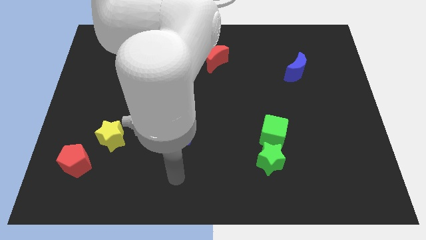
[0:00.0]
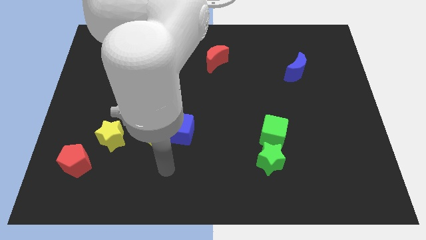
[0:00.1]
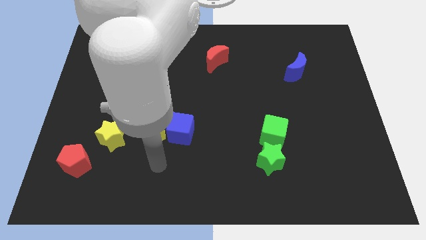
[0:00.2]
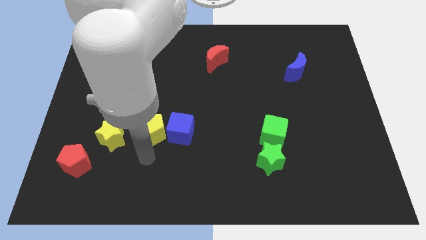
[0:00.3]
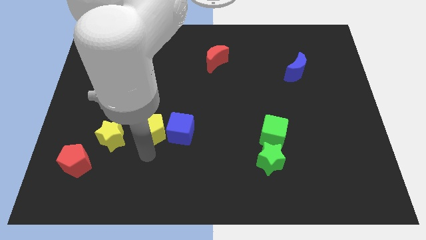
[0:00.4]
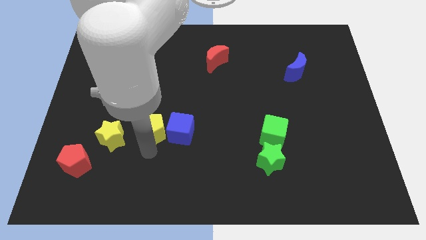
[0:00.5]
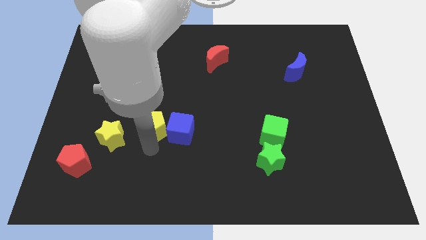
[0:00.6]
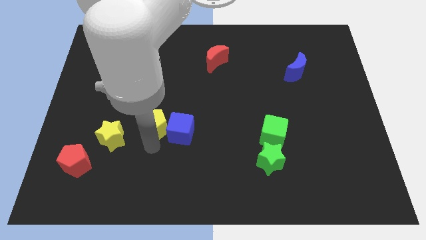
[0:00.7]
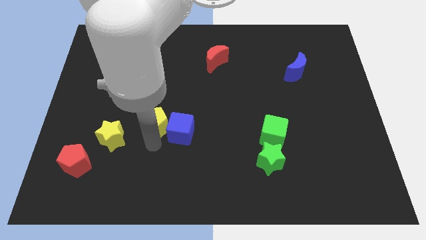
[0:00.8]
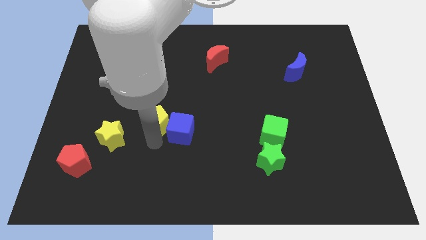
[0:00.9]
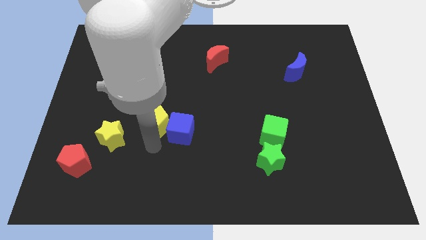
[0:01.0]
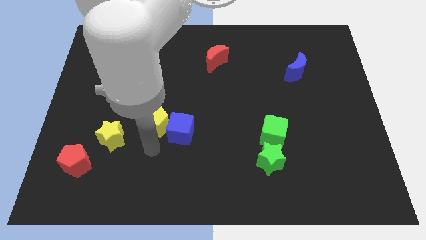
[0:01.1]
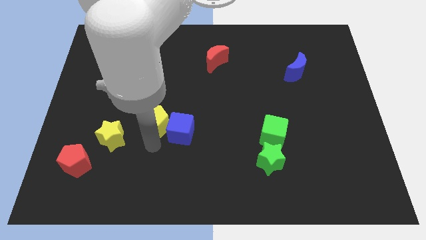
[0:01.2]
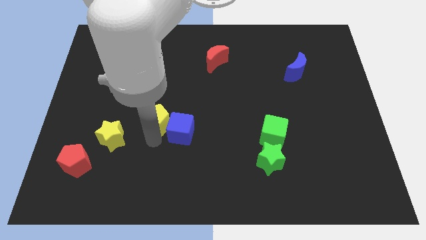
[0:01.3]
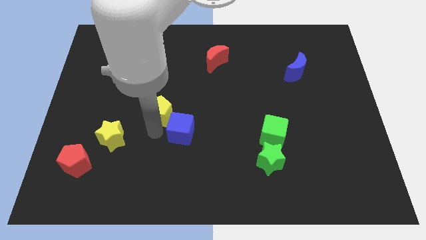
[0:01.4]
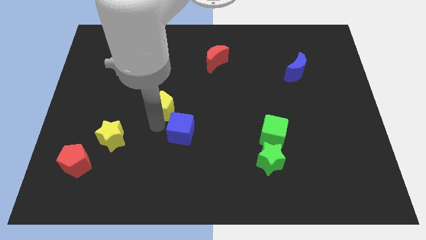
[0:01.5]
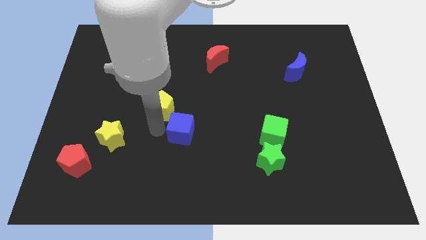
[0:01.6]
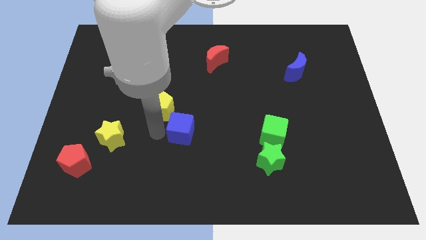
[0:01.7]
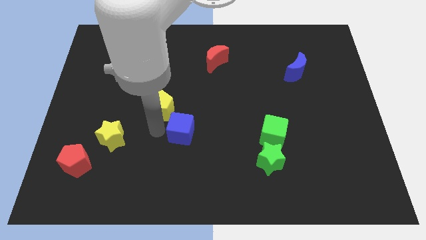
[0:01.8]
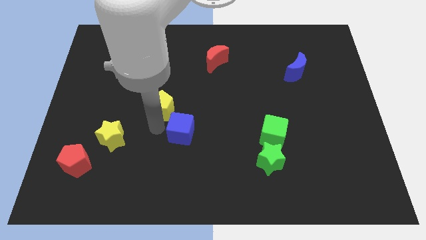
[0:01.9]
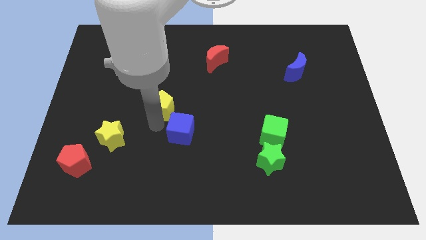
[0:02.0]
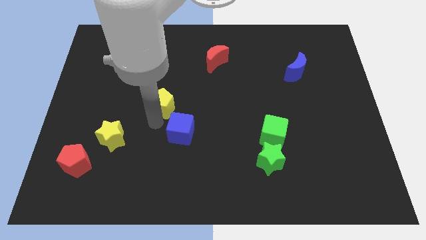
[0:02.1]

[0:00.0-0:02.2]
push the yellow pentagon a little upwards

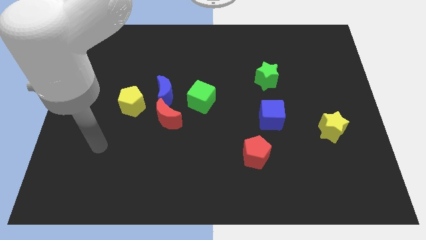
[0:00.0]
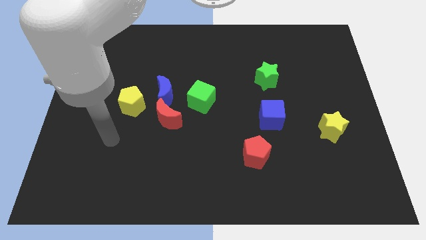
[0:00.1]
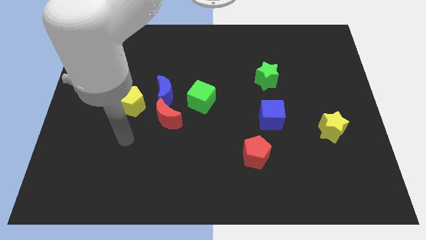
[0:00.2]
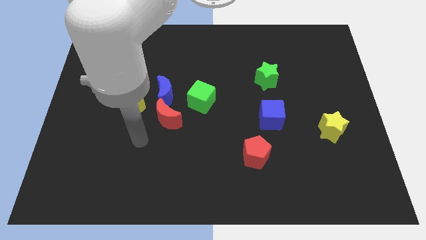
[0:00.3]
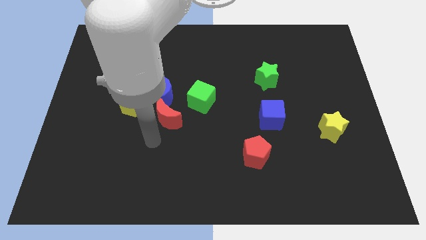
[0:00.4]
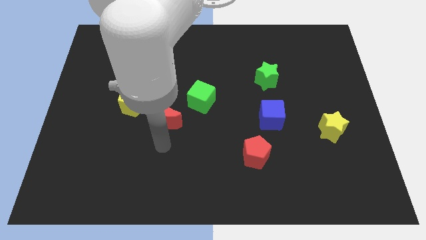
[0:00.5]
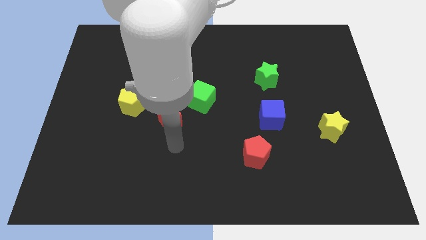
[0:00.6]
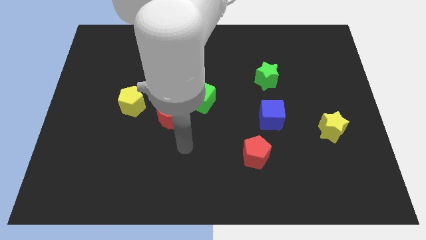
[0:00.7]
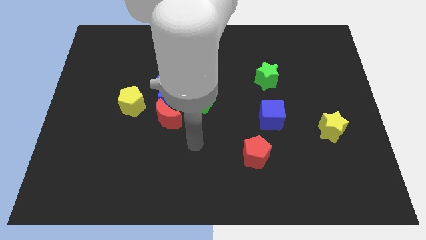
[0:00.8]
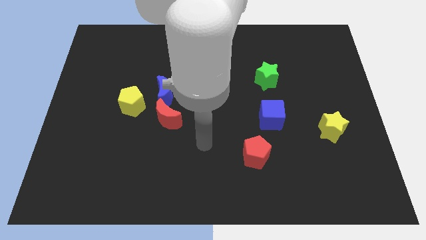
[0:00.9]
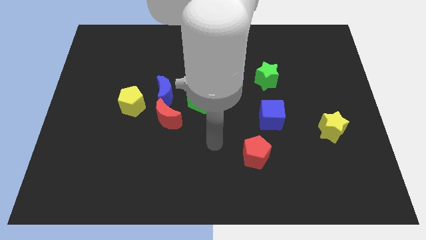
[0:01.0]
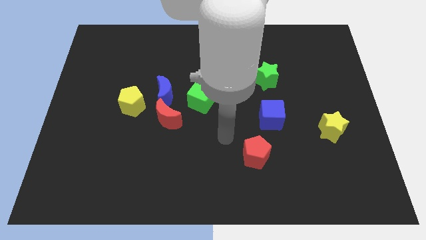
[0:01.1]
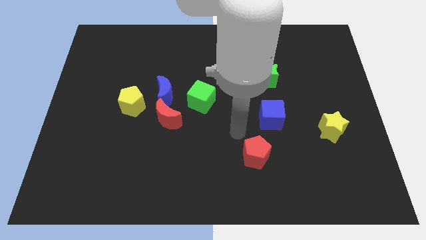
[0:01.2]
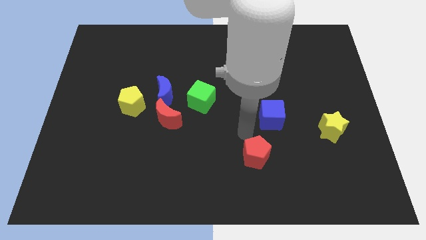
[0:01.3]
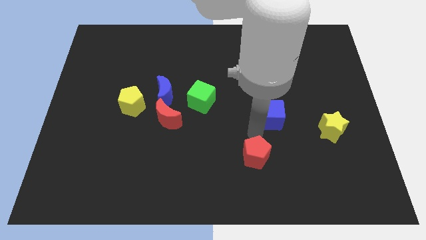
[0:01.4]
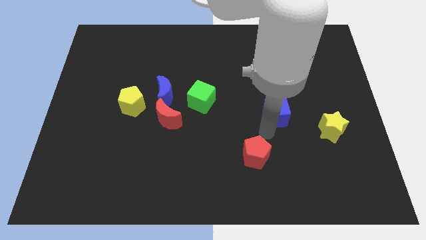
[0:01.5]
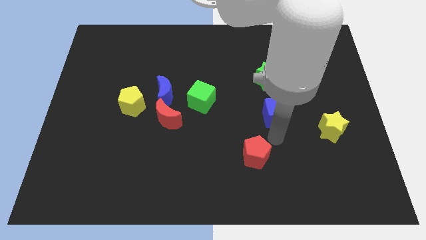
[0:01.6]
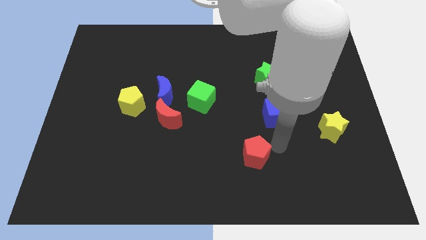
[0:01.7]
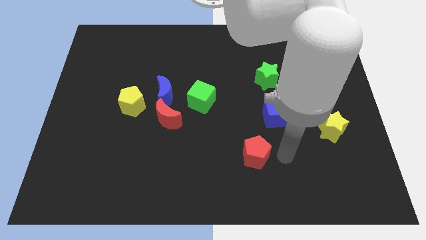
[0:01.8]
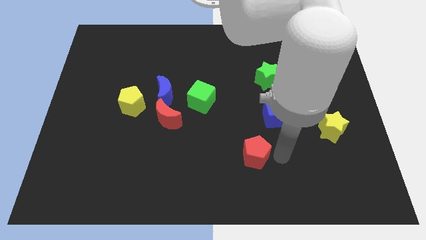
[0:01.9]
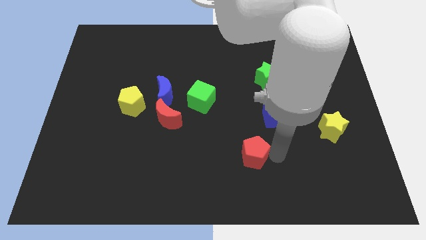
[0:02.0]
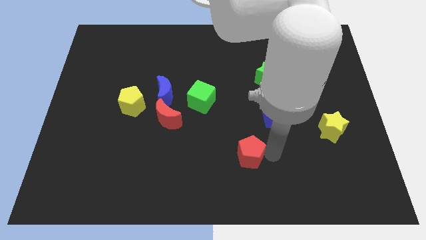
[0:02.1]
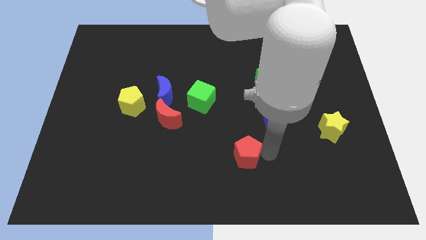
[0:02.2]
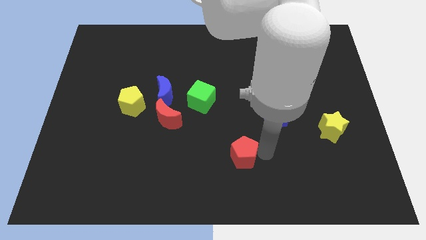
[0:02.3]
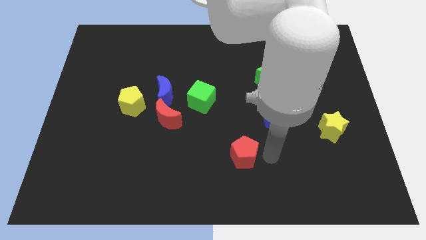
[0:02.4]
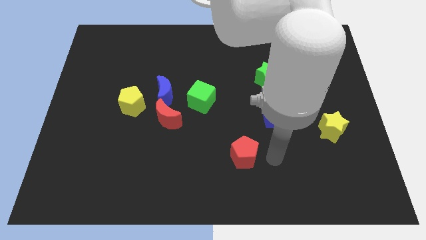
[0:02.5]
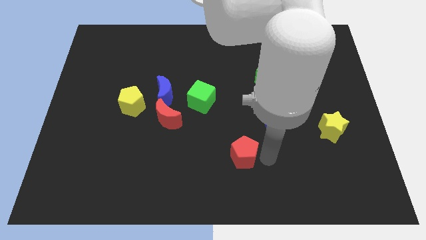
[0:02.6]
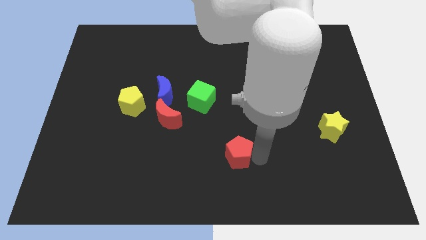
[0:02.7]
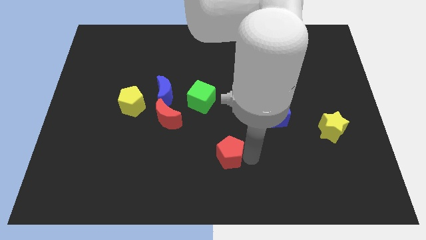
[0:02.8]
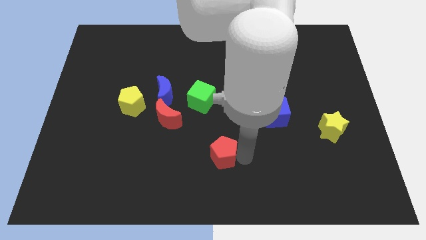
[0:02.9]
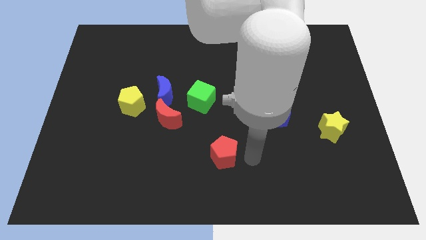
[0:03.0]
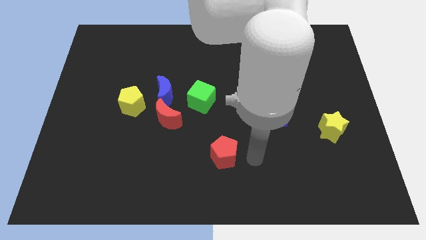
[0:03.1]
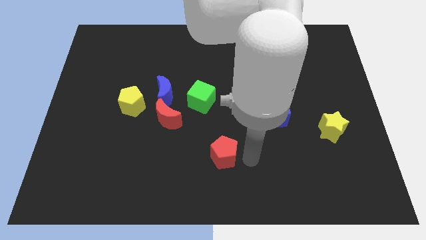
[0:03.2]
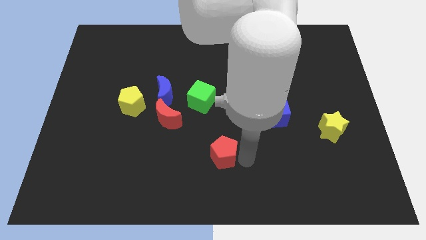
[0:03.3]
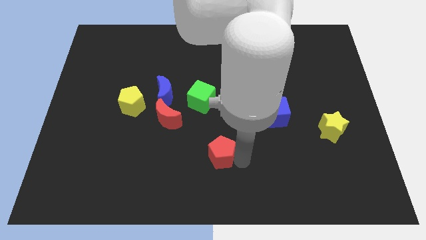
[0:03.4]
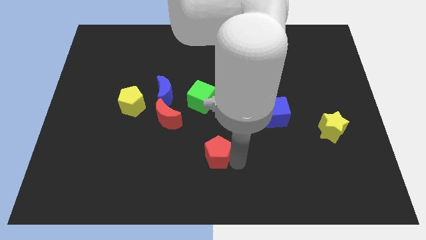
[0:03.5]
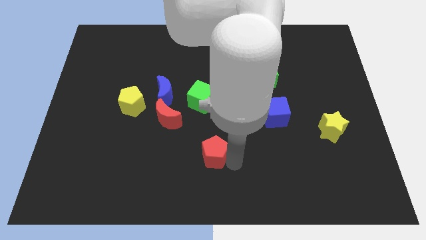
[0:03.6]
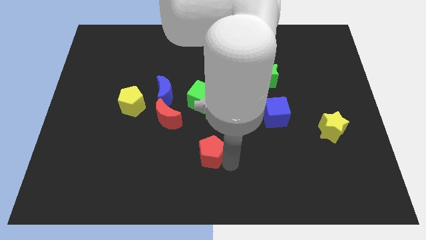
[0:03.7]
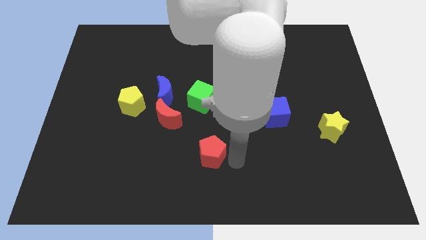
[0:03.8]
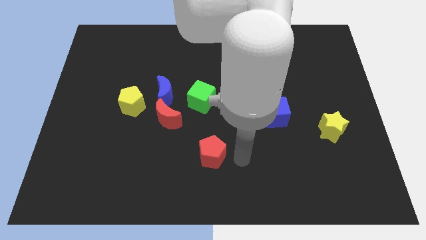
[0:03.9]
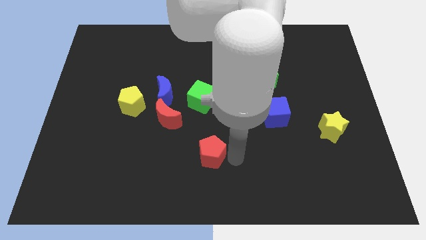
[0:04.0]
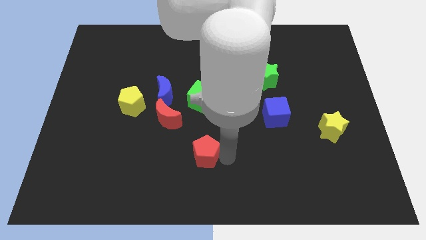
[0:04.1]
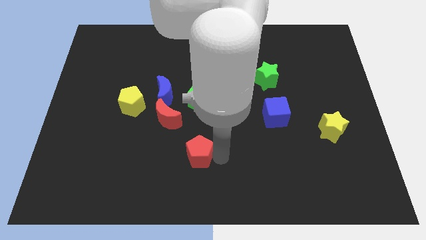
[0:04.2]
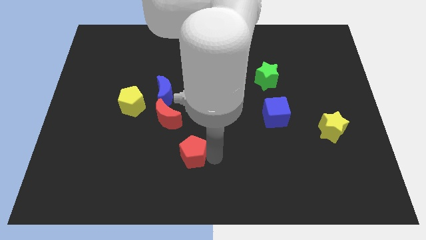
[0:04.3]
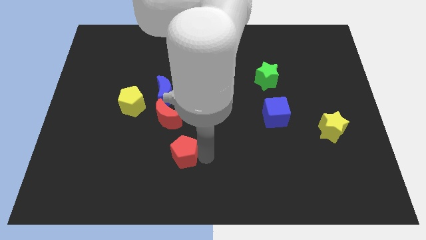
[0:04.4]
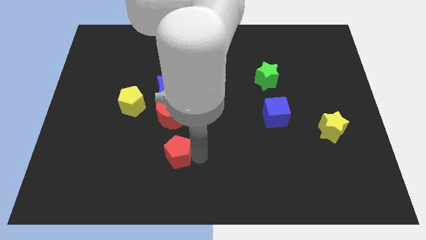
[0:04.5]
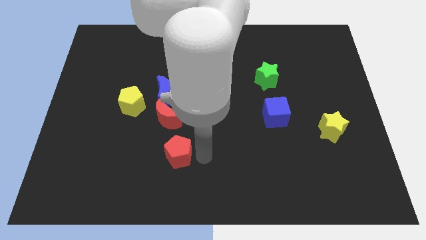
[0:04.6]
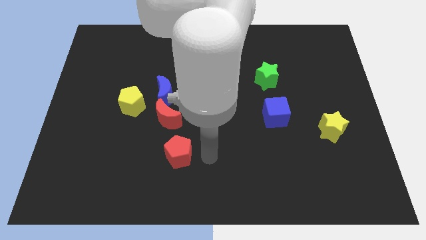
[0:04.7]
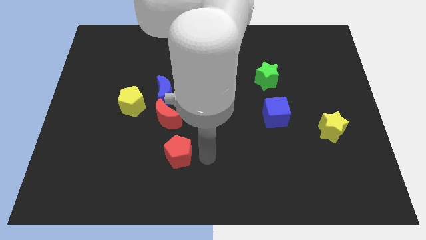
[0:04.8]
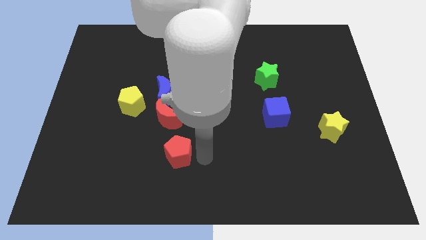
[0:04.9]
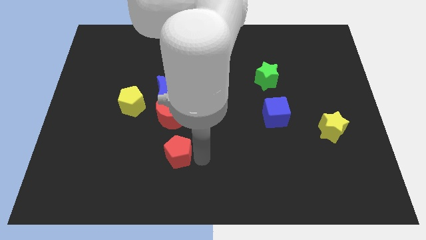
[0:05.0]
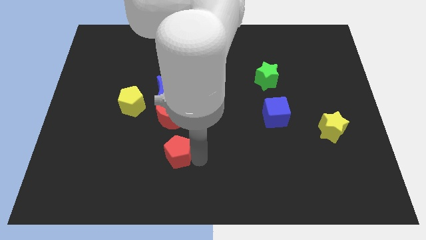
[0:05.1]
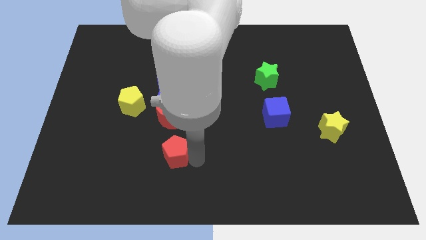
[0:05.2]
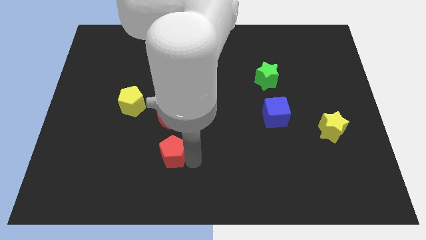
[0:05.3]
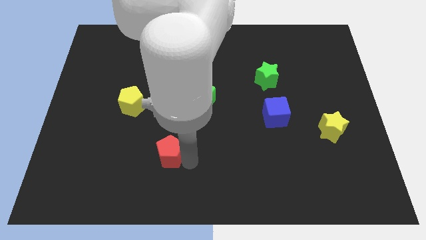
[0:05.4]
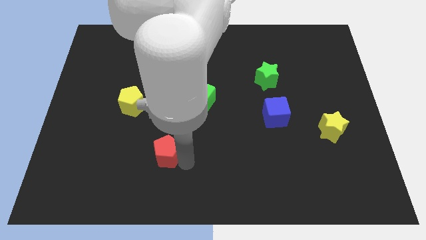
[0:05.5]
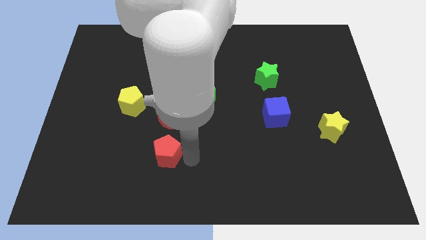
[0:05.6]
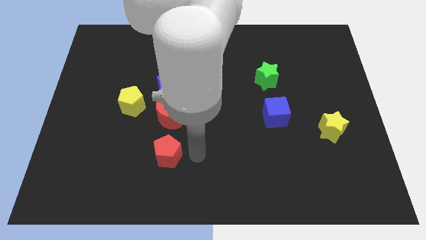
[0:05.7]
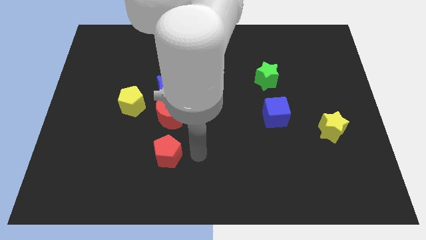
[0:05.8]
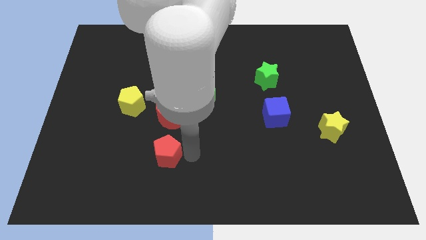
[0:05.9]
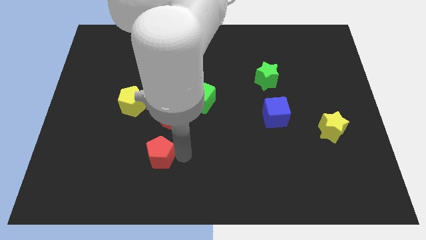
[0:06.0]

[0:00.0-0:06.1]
move the red pentagon to the left
